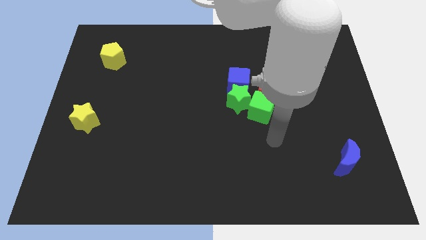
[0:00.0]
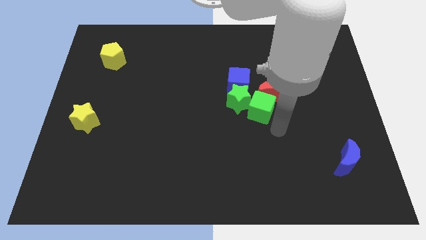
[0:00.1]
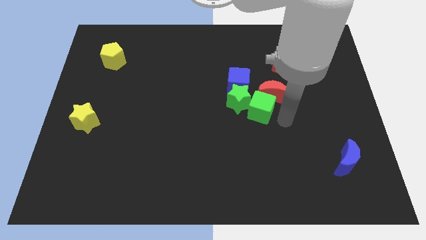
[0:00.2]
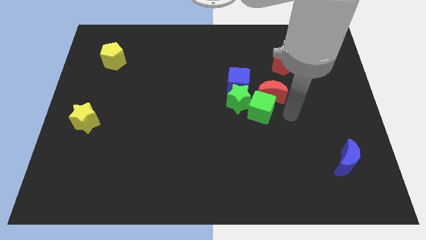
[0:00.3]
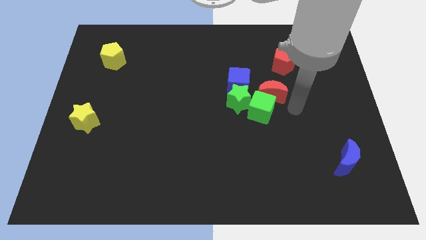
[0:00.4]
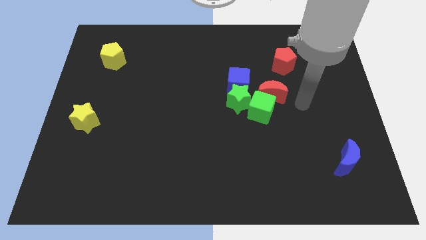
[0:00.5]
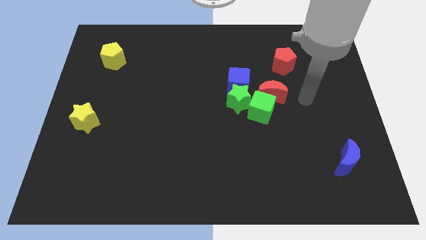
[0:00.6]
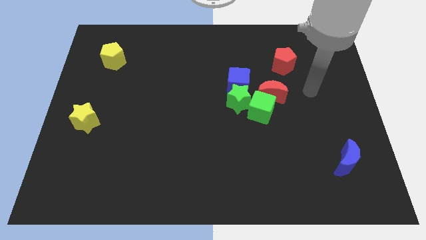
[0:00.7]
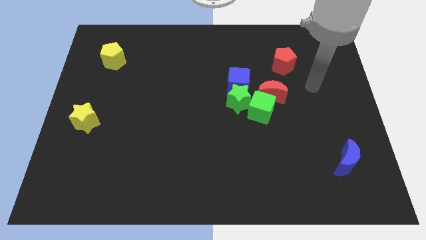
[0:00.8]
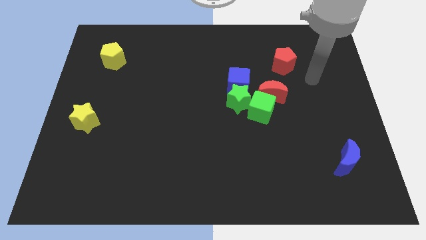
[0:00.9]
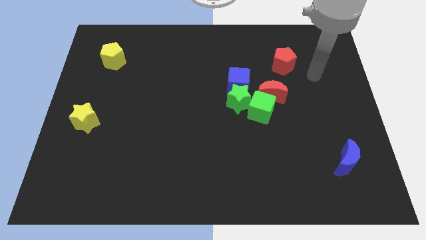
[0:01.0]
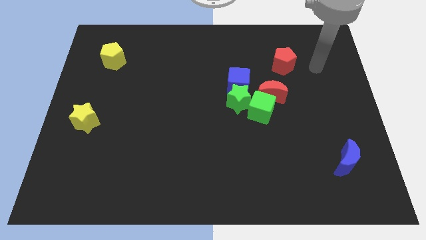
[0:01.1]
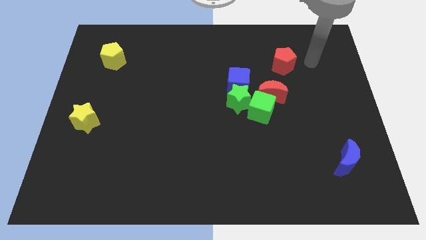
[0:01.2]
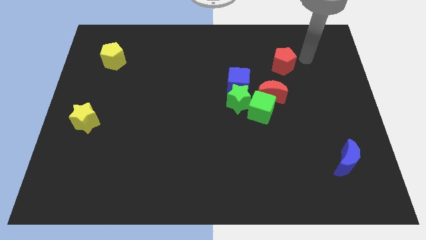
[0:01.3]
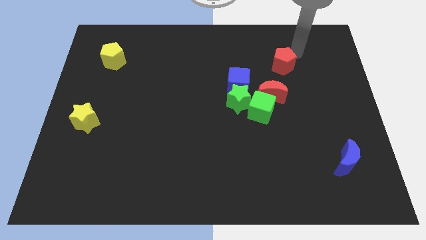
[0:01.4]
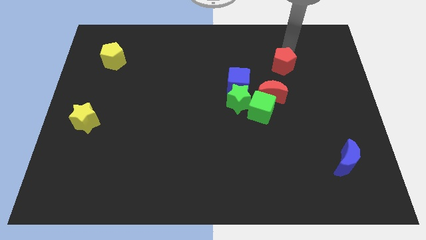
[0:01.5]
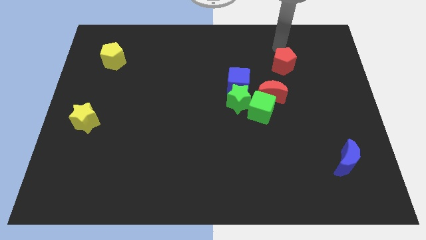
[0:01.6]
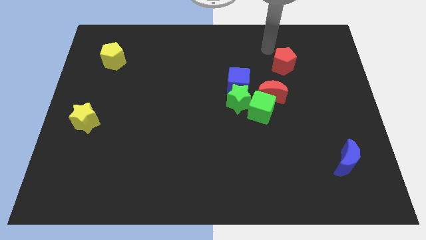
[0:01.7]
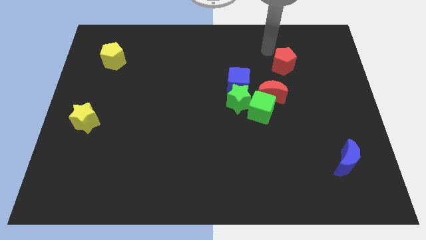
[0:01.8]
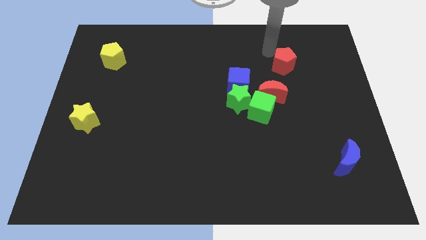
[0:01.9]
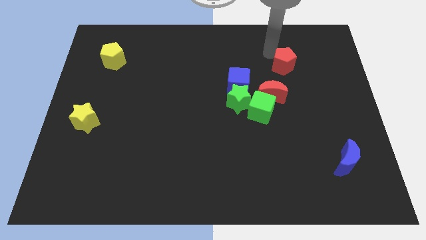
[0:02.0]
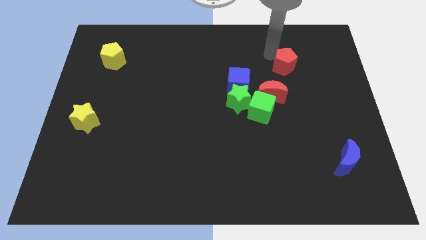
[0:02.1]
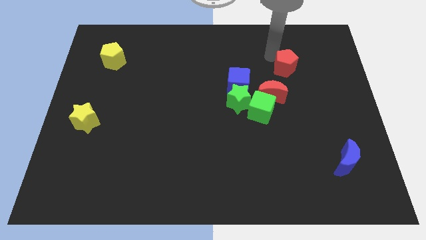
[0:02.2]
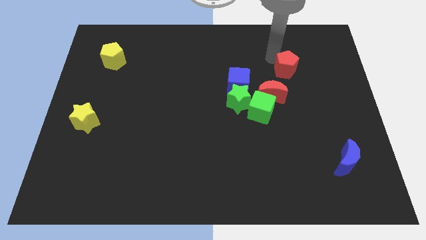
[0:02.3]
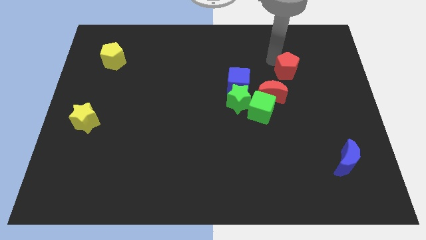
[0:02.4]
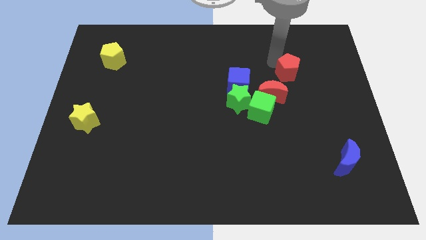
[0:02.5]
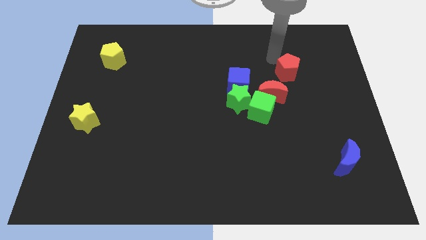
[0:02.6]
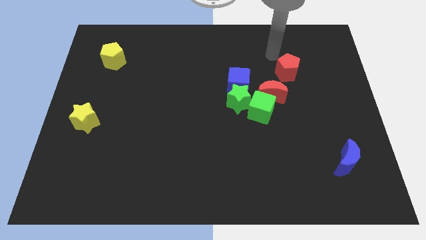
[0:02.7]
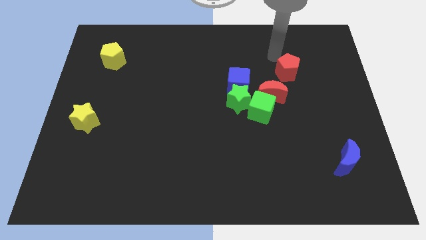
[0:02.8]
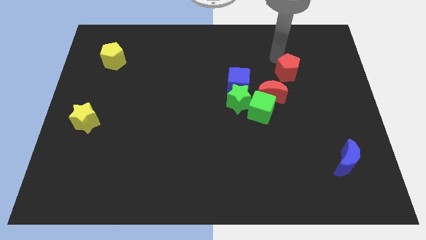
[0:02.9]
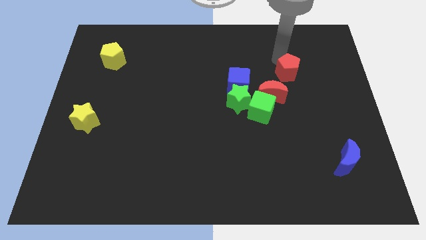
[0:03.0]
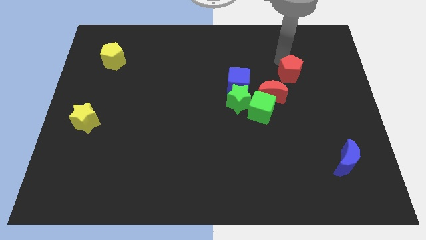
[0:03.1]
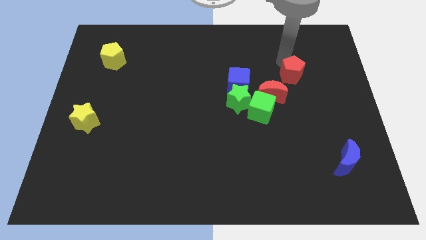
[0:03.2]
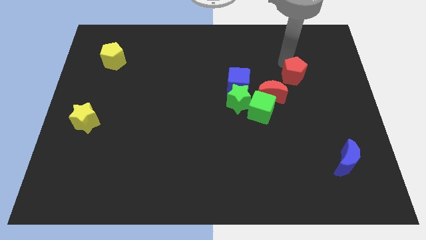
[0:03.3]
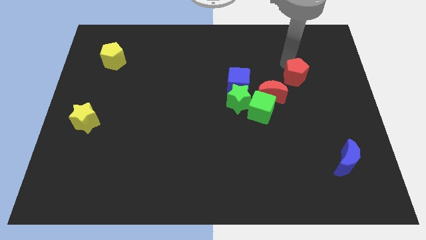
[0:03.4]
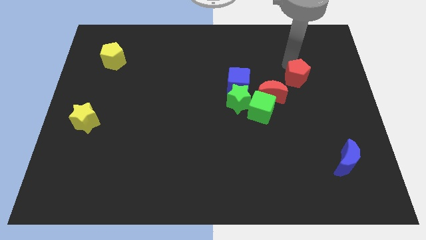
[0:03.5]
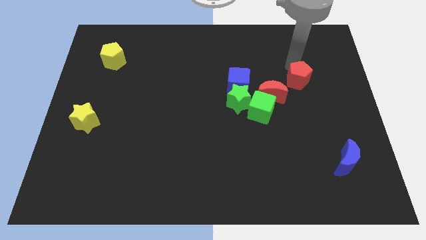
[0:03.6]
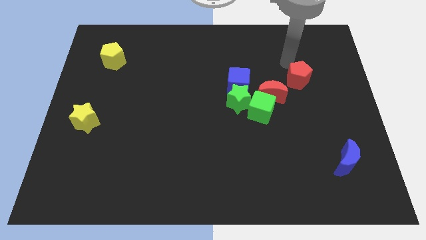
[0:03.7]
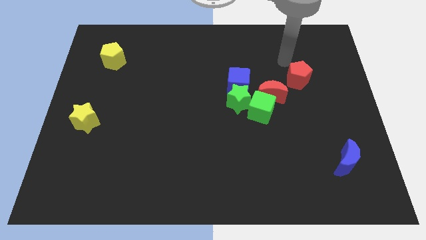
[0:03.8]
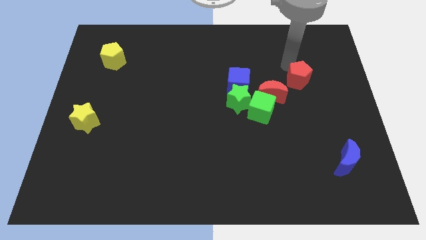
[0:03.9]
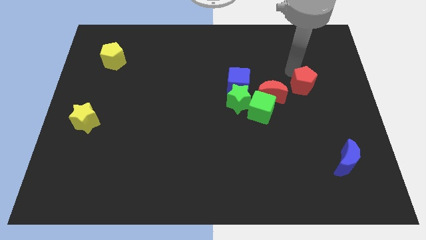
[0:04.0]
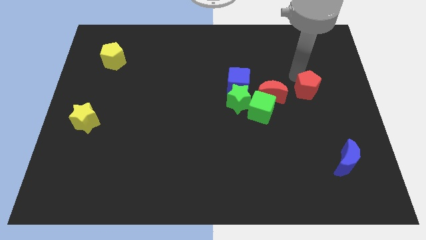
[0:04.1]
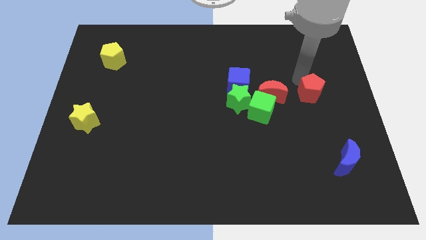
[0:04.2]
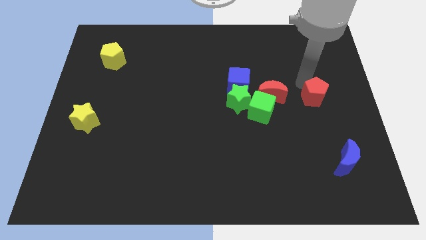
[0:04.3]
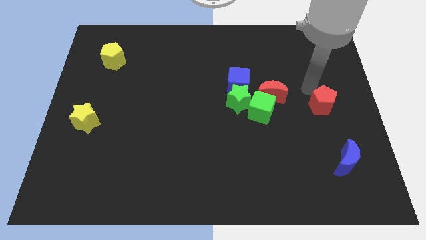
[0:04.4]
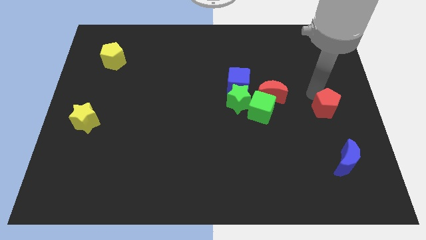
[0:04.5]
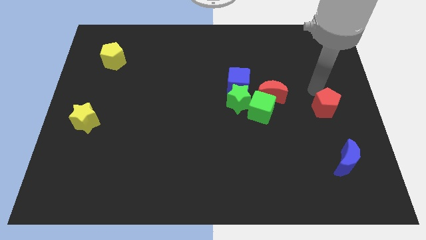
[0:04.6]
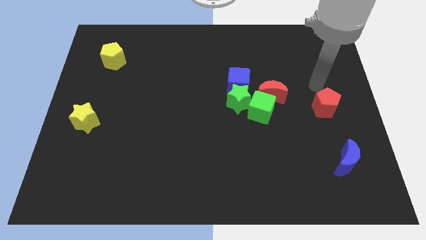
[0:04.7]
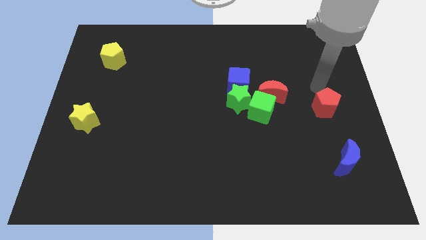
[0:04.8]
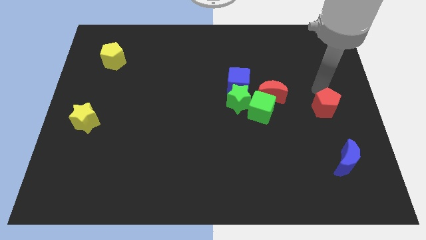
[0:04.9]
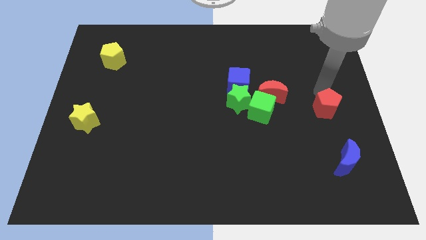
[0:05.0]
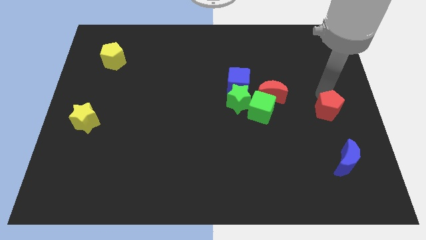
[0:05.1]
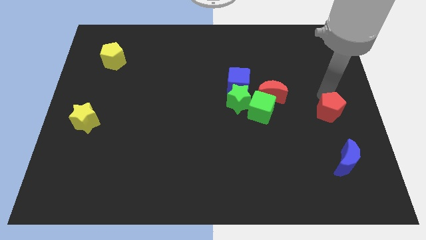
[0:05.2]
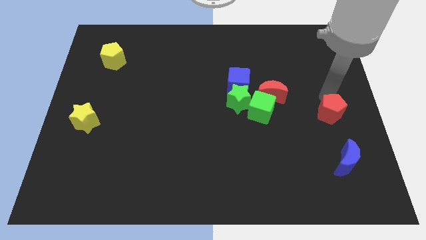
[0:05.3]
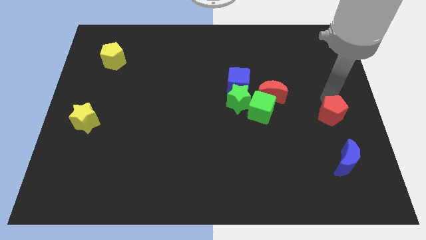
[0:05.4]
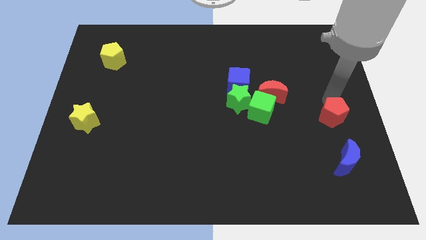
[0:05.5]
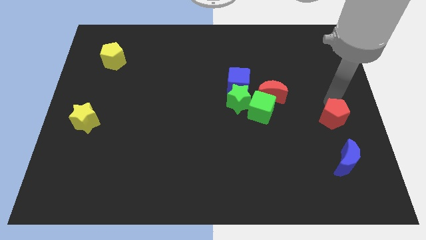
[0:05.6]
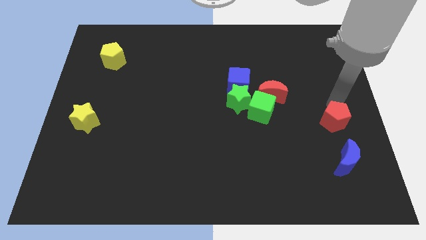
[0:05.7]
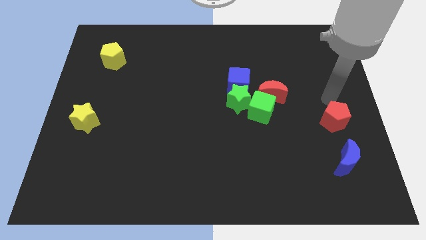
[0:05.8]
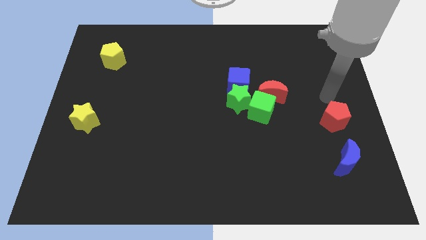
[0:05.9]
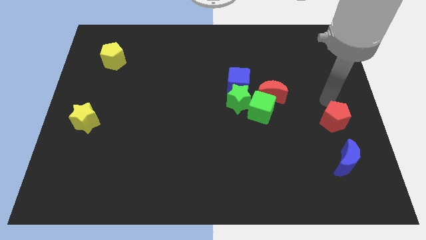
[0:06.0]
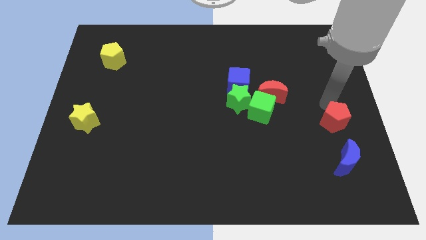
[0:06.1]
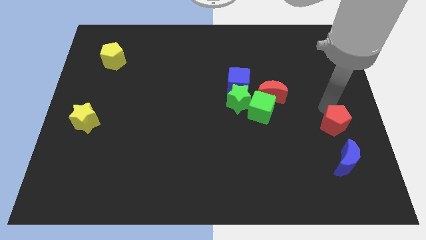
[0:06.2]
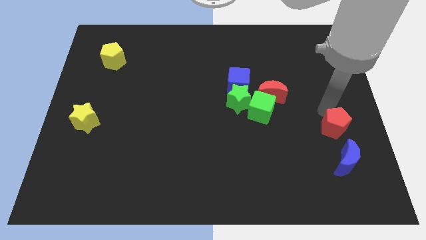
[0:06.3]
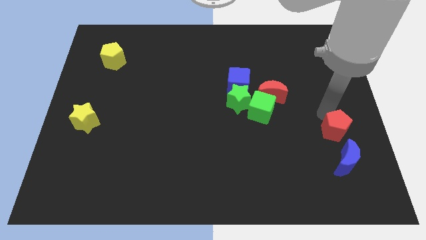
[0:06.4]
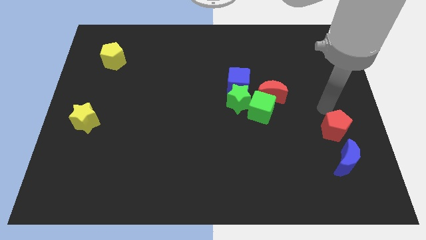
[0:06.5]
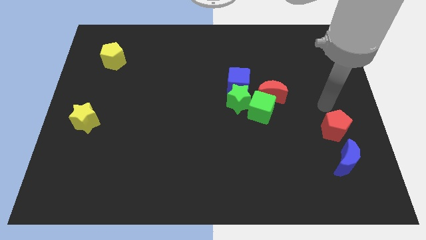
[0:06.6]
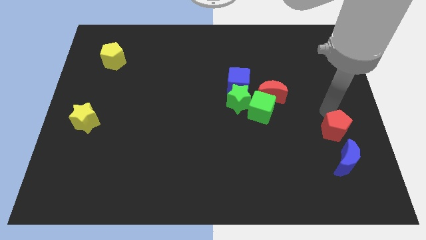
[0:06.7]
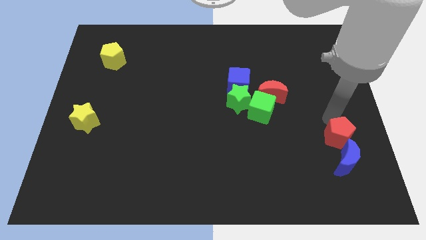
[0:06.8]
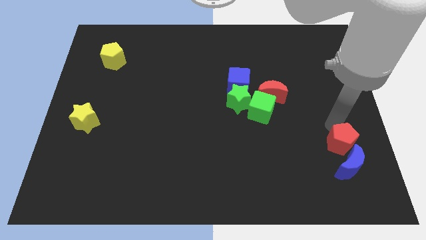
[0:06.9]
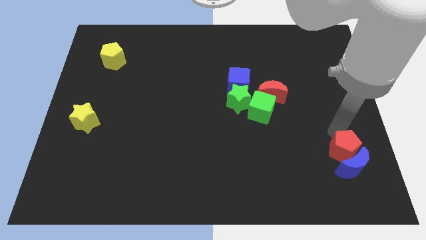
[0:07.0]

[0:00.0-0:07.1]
put the red pentagon to the blue moon

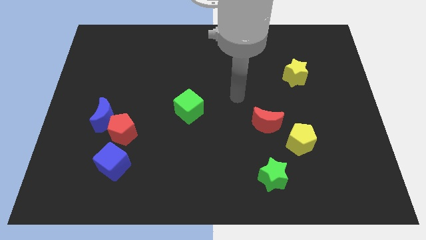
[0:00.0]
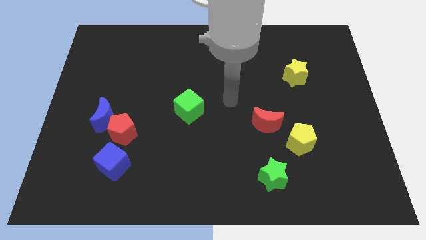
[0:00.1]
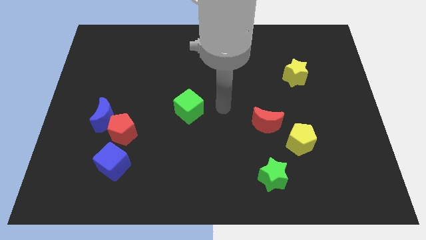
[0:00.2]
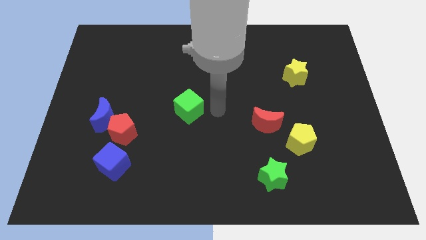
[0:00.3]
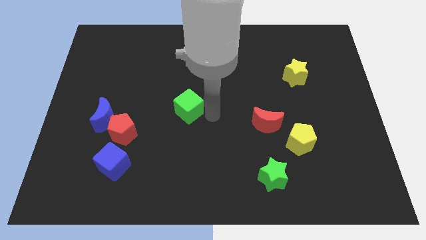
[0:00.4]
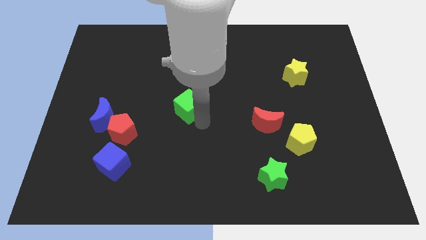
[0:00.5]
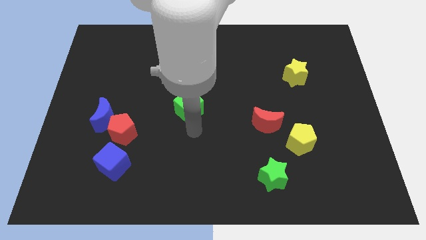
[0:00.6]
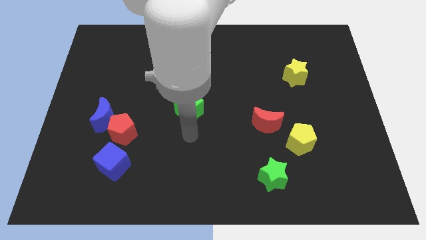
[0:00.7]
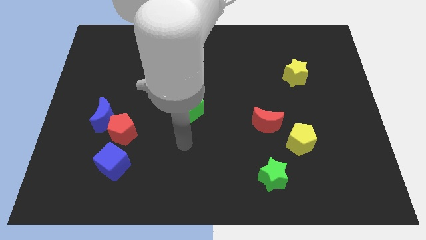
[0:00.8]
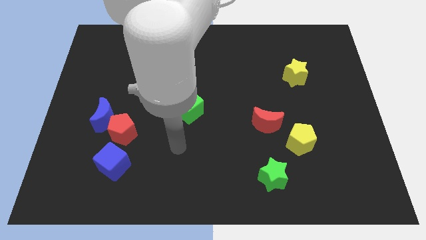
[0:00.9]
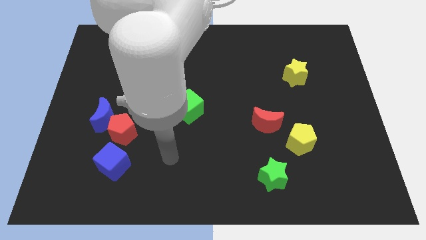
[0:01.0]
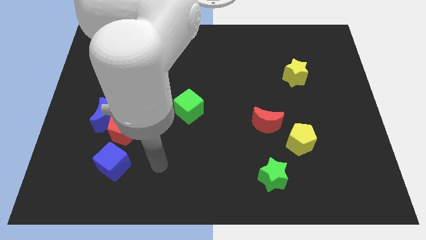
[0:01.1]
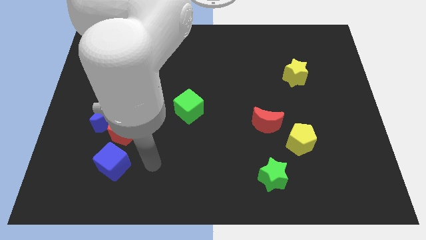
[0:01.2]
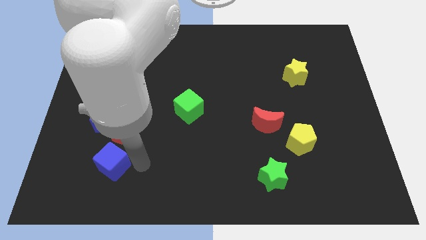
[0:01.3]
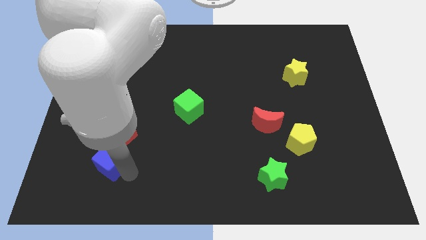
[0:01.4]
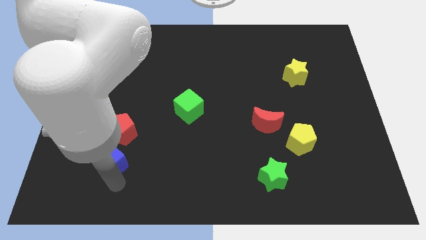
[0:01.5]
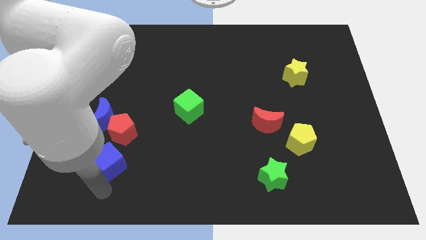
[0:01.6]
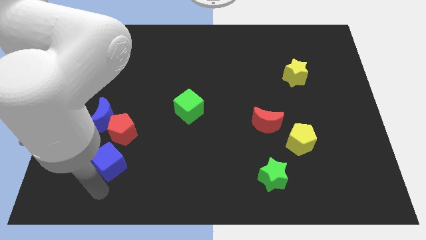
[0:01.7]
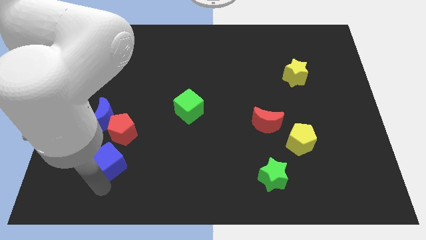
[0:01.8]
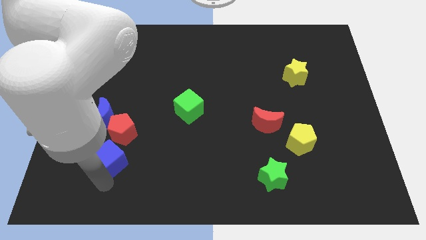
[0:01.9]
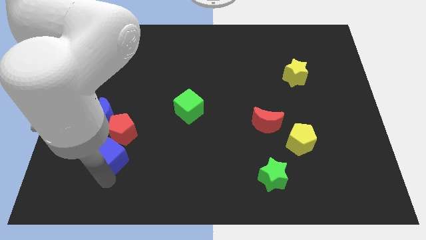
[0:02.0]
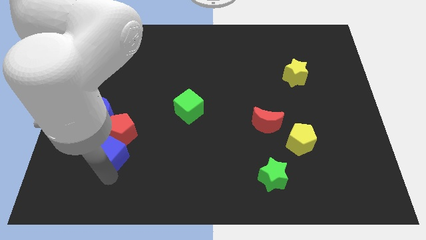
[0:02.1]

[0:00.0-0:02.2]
slide the blue cube next to the red pentagon
